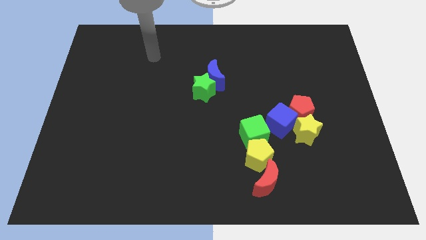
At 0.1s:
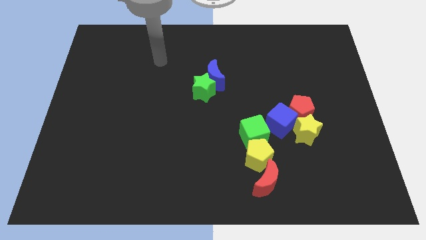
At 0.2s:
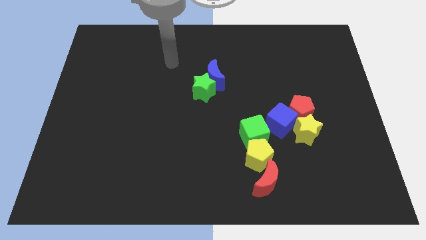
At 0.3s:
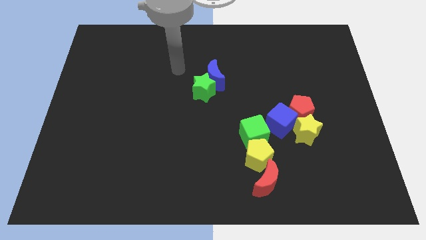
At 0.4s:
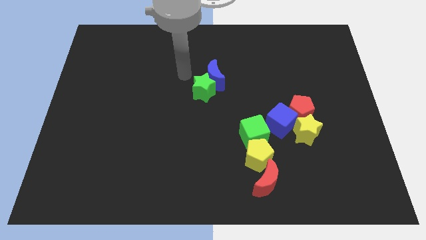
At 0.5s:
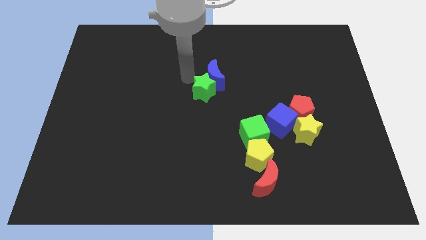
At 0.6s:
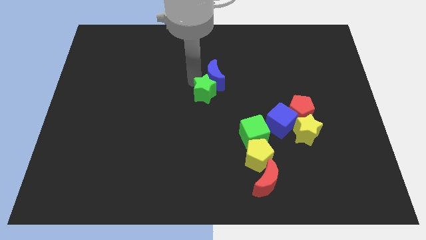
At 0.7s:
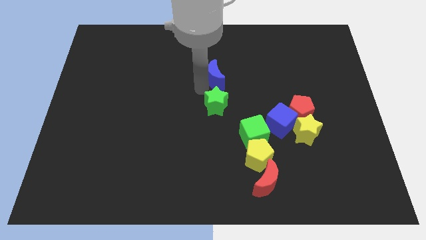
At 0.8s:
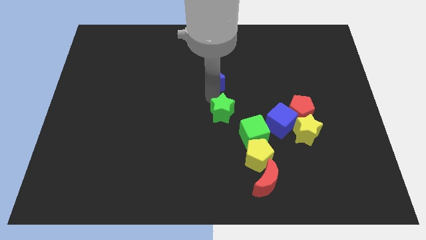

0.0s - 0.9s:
separate the blue moon from the green star

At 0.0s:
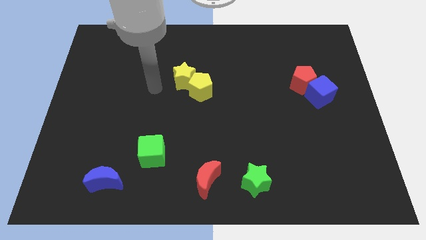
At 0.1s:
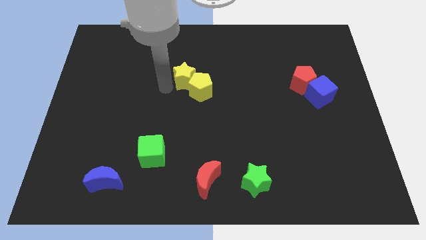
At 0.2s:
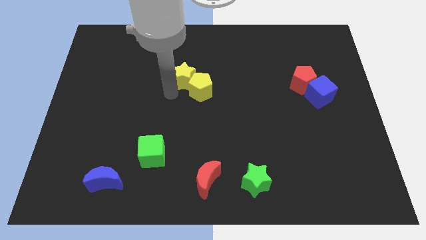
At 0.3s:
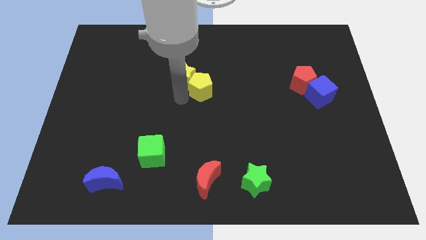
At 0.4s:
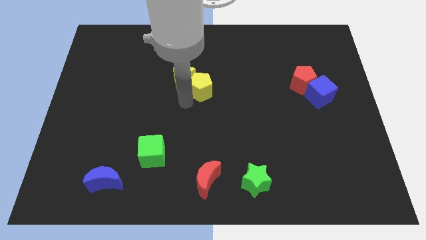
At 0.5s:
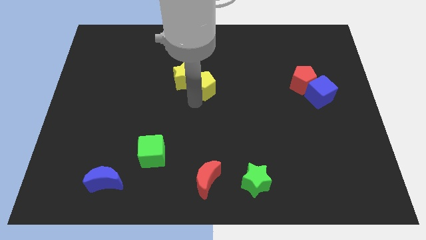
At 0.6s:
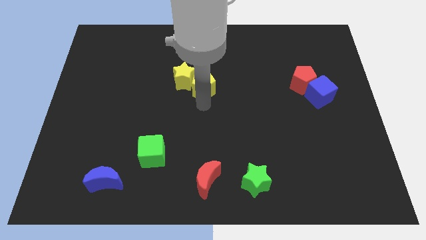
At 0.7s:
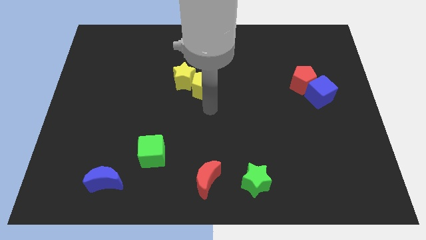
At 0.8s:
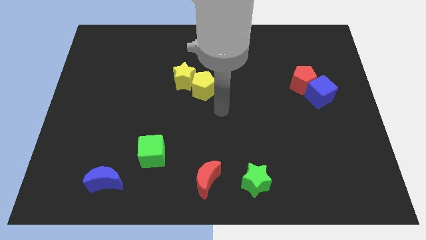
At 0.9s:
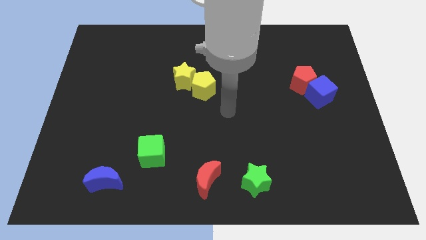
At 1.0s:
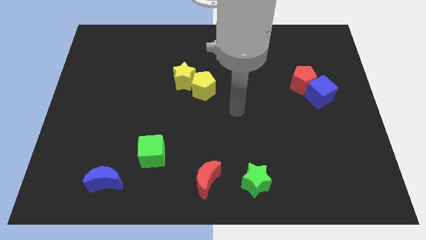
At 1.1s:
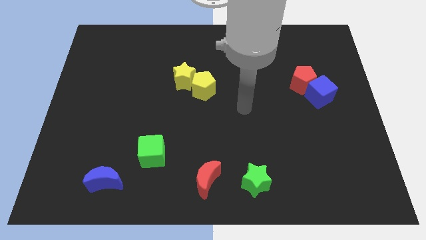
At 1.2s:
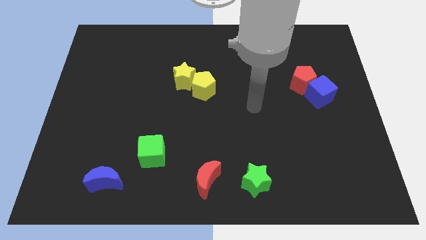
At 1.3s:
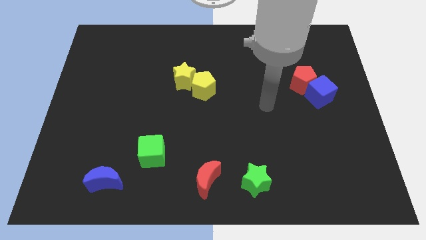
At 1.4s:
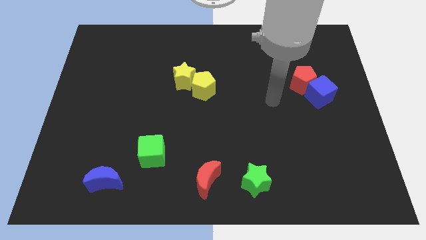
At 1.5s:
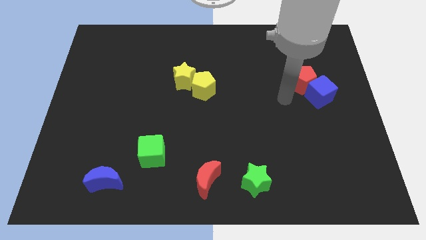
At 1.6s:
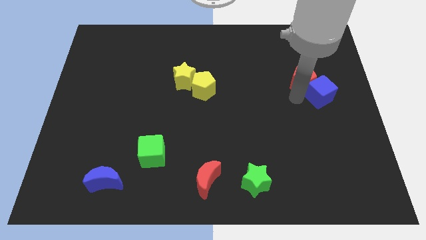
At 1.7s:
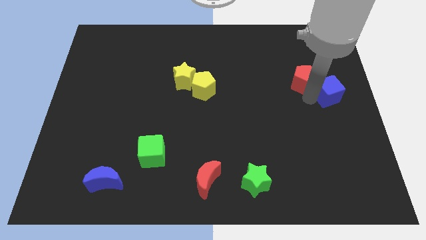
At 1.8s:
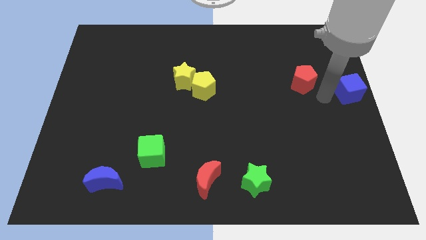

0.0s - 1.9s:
pull the red pentagon apart from the blue cube

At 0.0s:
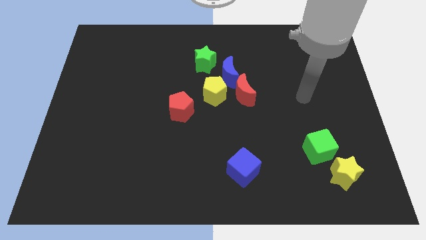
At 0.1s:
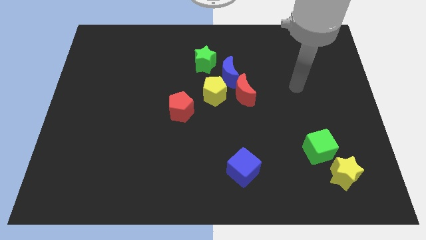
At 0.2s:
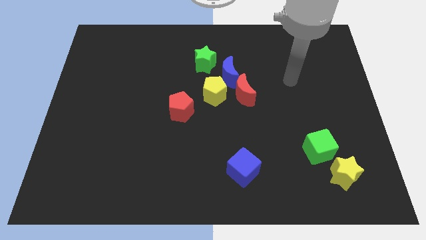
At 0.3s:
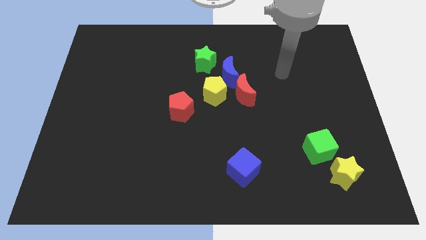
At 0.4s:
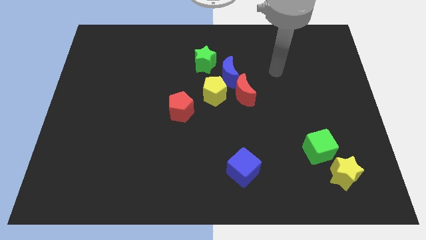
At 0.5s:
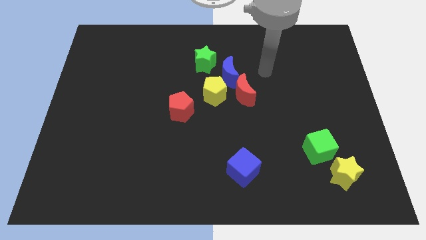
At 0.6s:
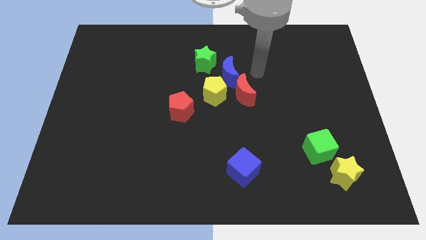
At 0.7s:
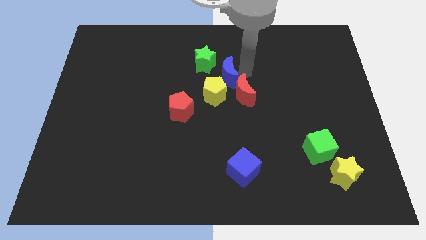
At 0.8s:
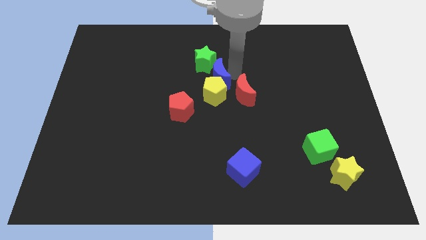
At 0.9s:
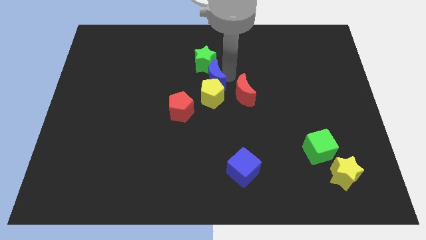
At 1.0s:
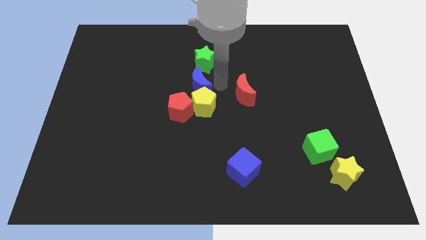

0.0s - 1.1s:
move the red moon away from the yellow pentagon and blue moon

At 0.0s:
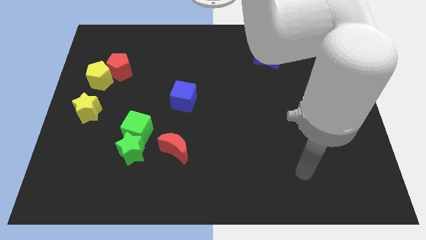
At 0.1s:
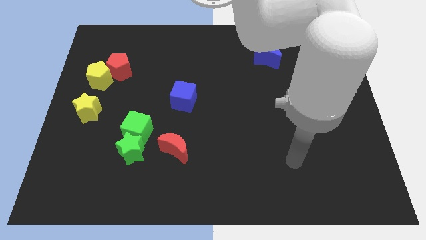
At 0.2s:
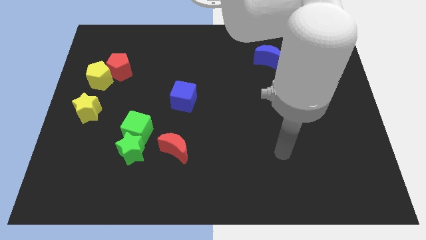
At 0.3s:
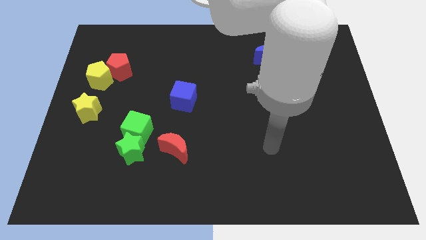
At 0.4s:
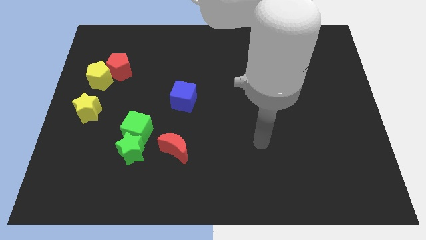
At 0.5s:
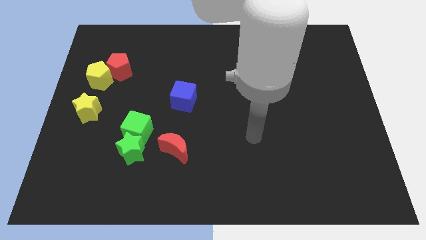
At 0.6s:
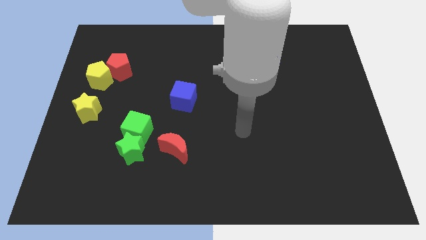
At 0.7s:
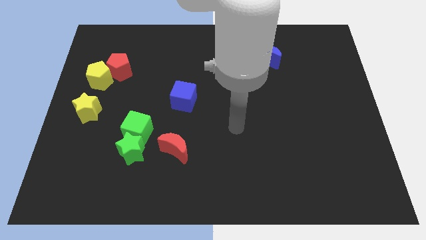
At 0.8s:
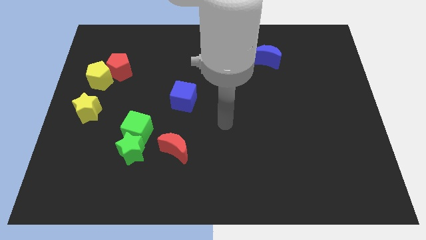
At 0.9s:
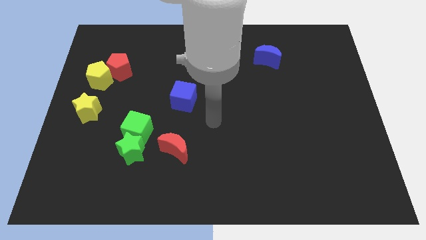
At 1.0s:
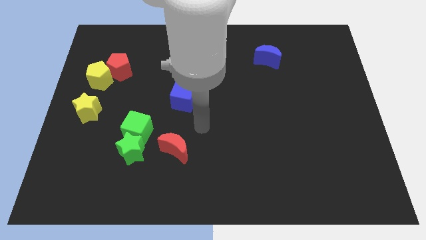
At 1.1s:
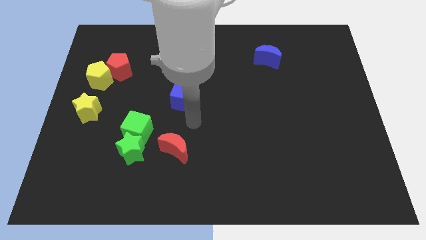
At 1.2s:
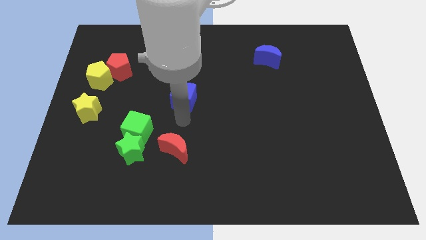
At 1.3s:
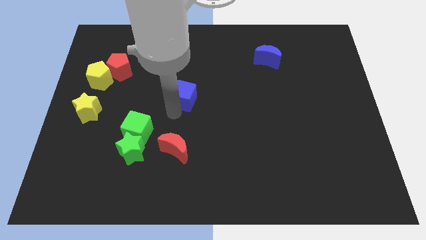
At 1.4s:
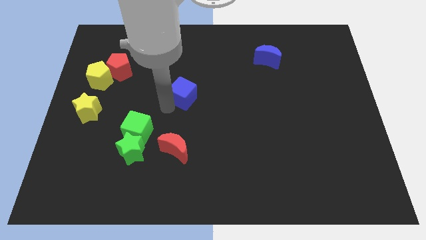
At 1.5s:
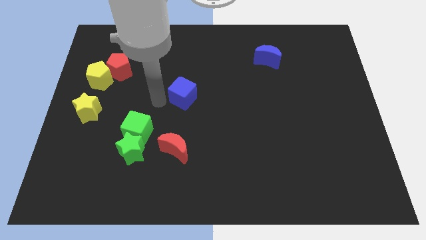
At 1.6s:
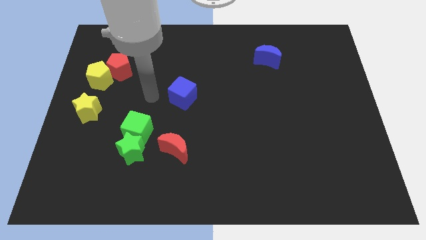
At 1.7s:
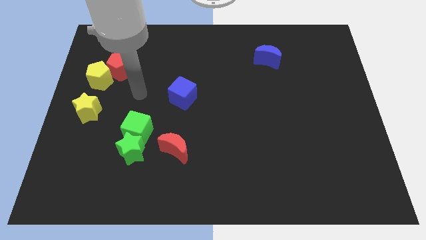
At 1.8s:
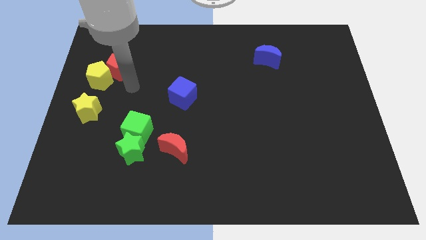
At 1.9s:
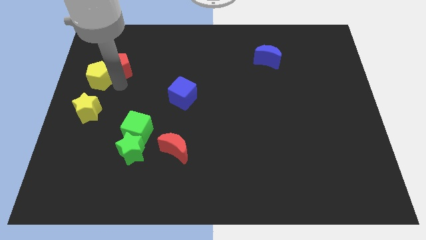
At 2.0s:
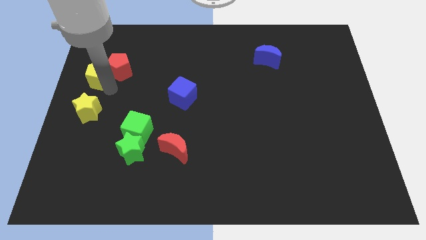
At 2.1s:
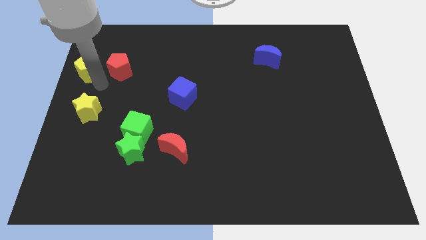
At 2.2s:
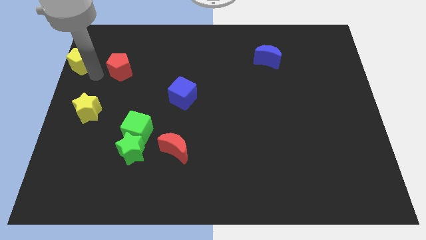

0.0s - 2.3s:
move the red pentagon away from the yellow pentagon

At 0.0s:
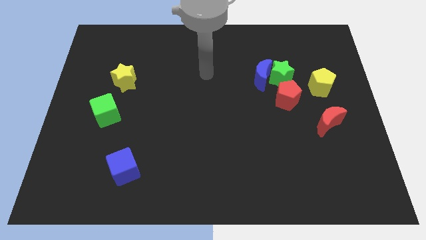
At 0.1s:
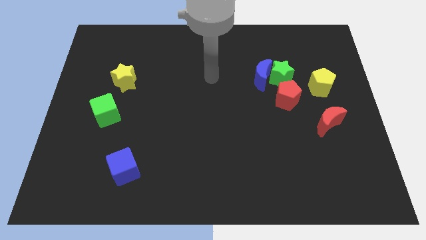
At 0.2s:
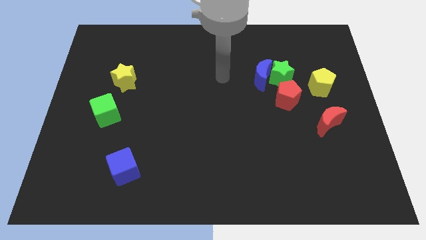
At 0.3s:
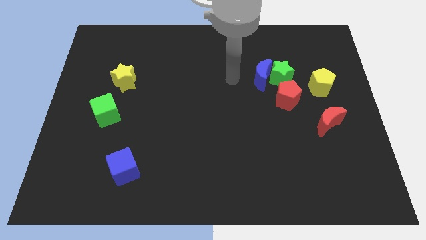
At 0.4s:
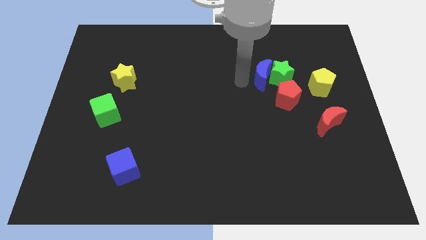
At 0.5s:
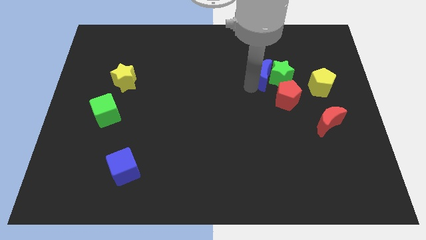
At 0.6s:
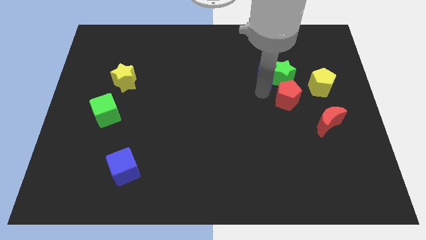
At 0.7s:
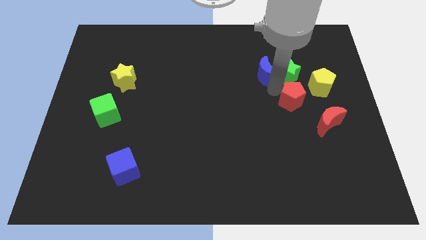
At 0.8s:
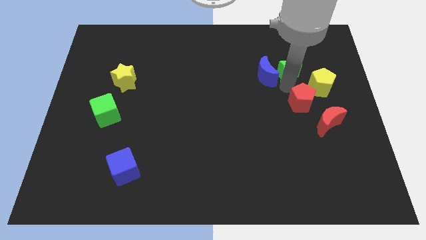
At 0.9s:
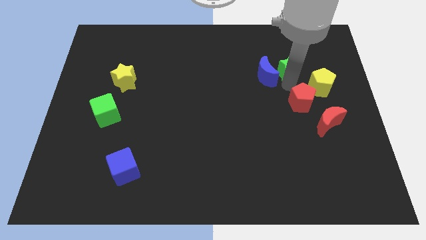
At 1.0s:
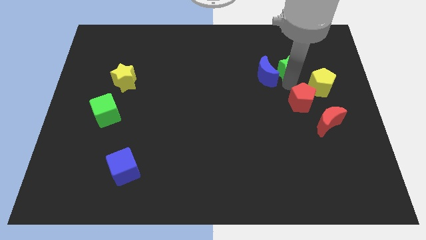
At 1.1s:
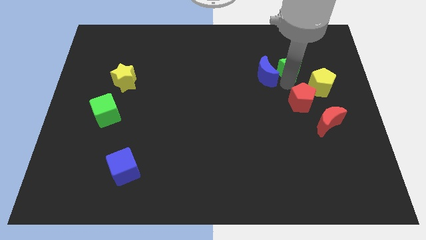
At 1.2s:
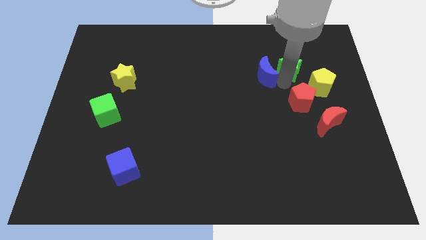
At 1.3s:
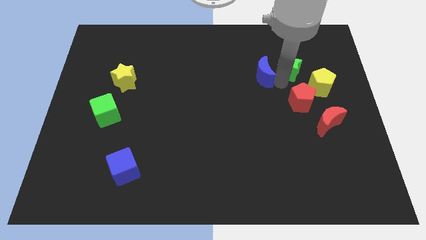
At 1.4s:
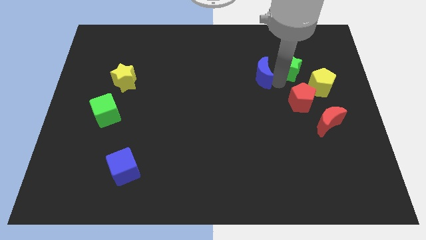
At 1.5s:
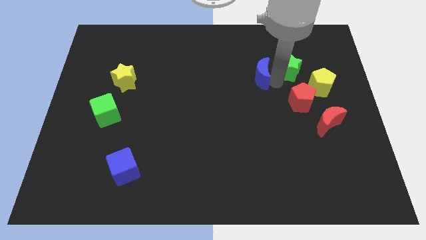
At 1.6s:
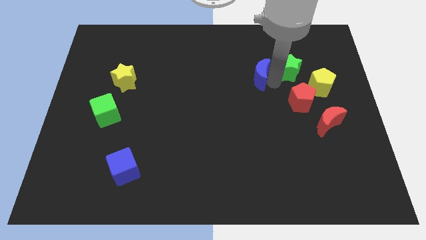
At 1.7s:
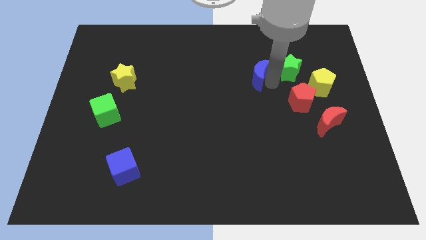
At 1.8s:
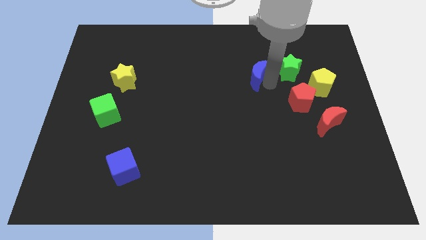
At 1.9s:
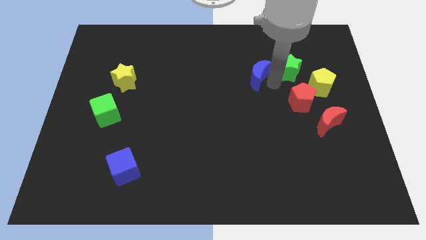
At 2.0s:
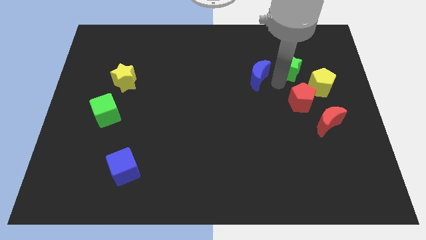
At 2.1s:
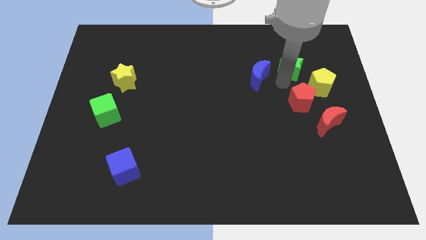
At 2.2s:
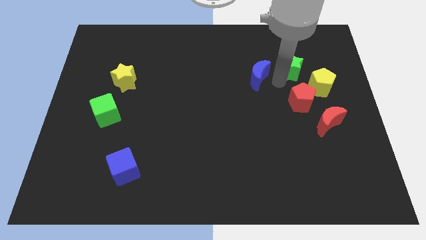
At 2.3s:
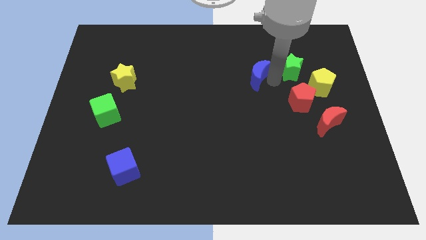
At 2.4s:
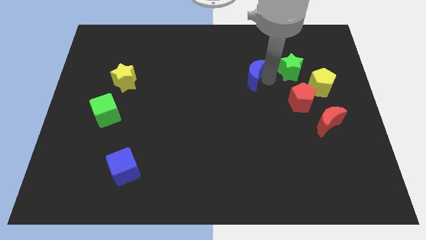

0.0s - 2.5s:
move the blue moon away from the green star and red pentagon

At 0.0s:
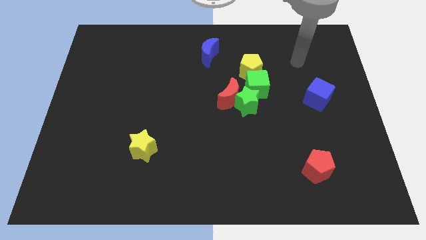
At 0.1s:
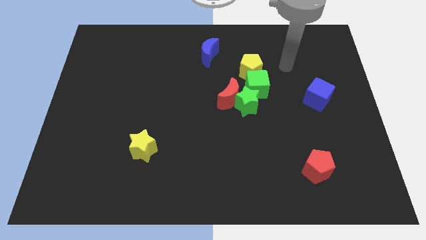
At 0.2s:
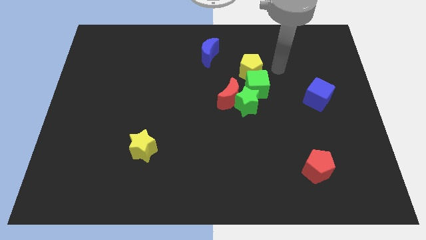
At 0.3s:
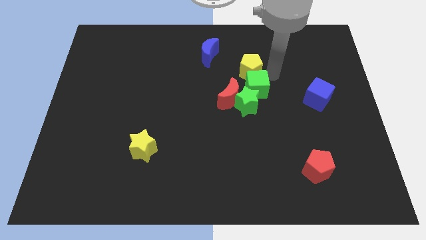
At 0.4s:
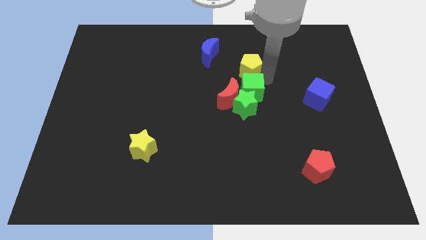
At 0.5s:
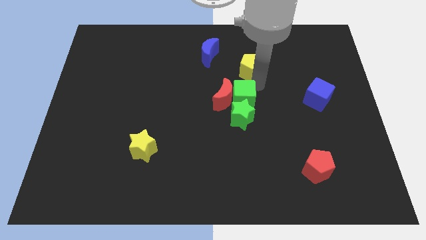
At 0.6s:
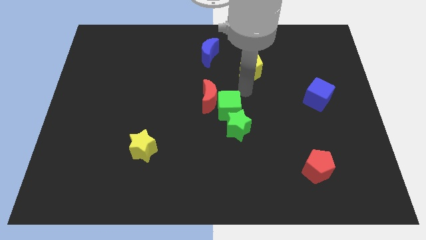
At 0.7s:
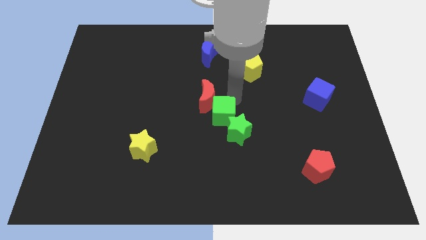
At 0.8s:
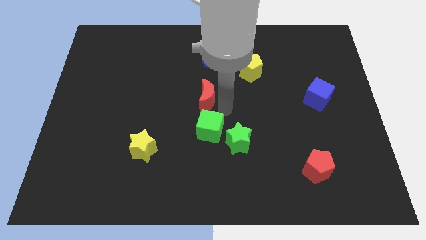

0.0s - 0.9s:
move the green star away from the red moon and green cube
